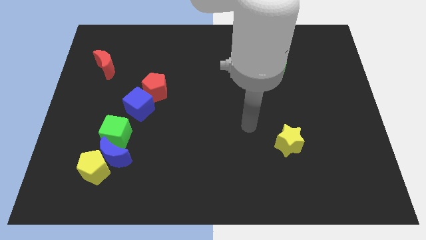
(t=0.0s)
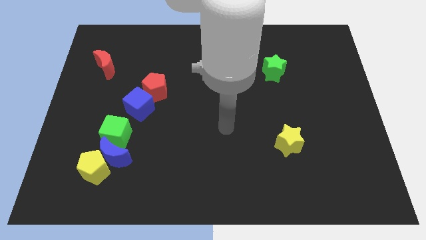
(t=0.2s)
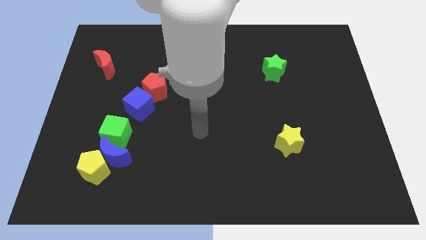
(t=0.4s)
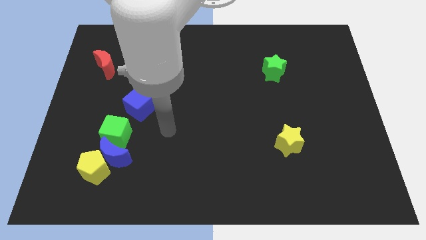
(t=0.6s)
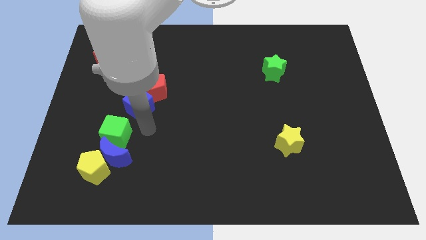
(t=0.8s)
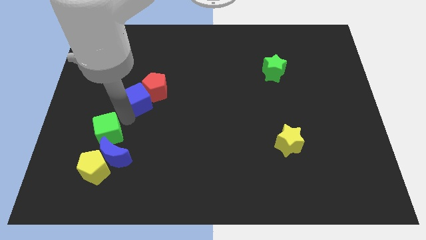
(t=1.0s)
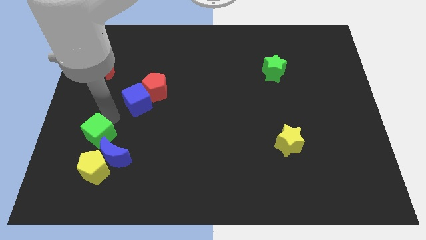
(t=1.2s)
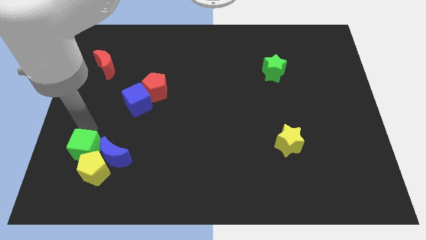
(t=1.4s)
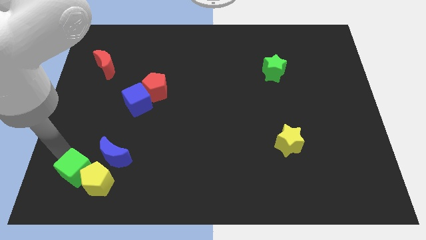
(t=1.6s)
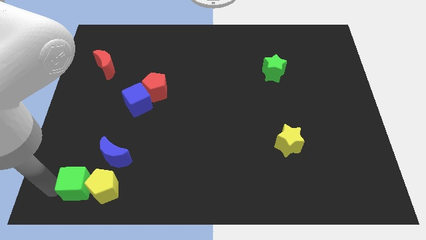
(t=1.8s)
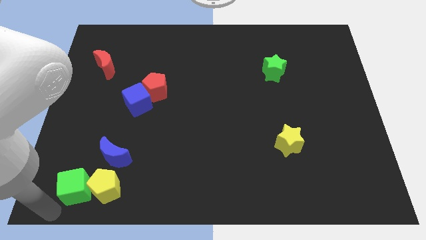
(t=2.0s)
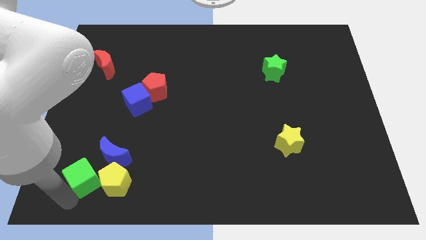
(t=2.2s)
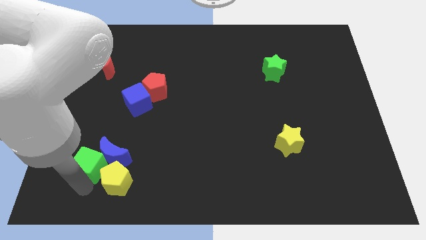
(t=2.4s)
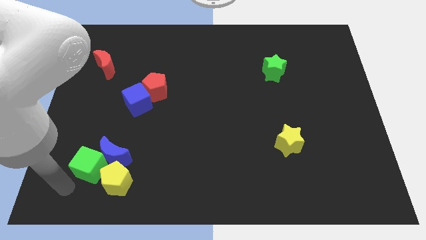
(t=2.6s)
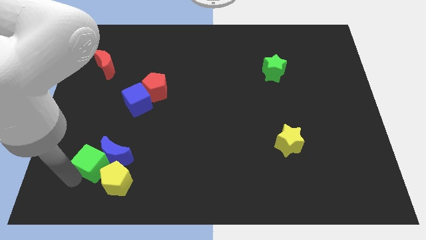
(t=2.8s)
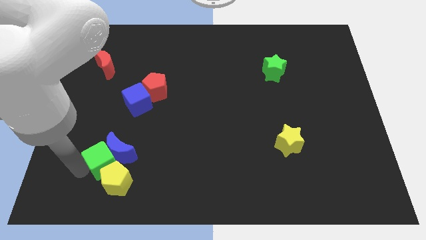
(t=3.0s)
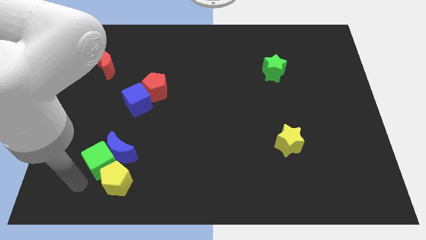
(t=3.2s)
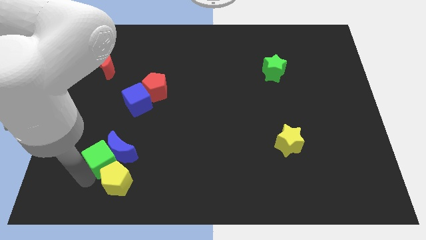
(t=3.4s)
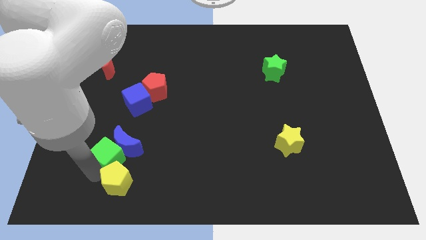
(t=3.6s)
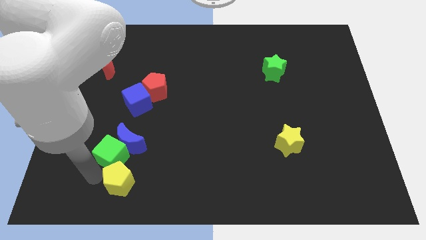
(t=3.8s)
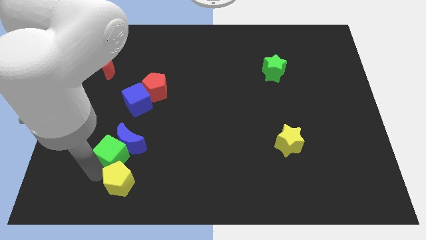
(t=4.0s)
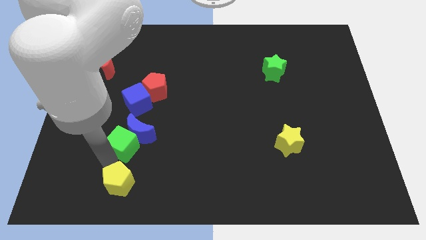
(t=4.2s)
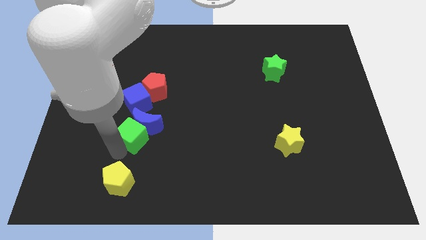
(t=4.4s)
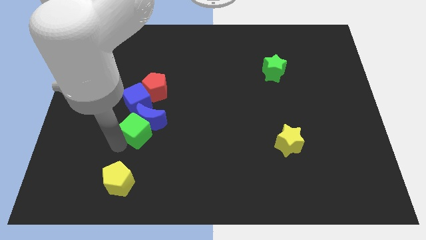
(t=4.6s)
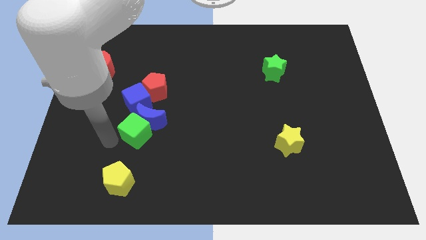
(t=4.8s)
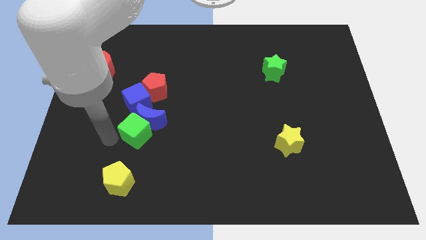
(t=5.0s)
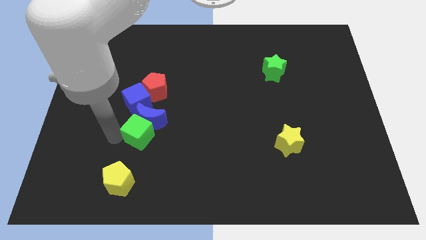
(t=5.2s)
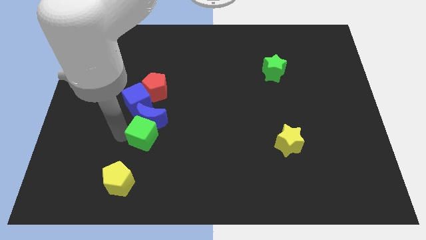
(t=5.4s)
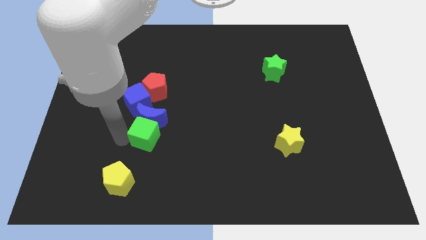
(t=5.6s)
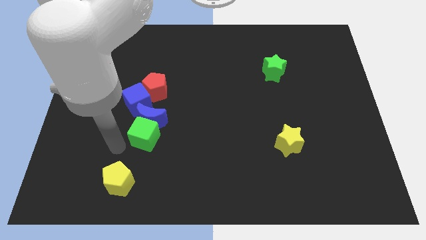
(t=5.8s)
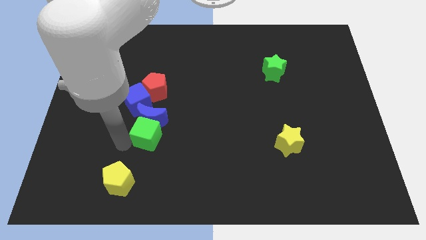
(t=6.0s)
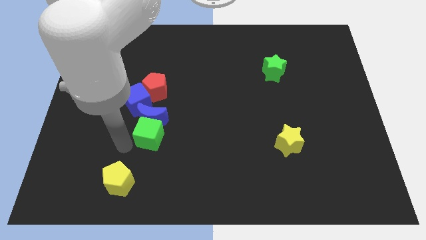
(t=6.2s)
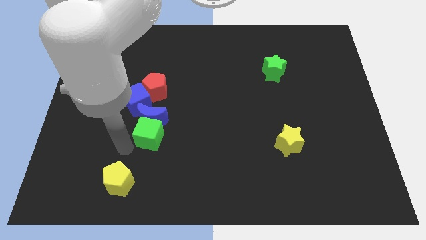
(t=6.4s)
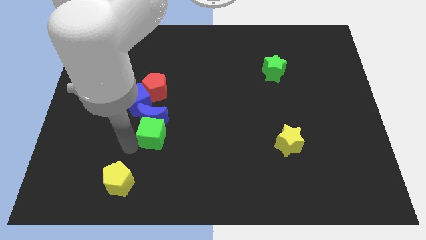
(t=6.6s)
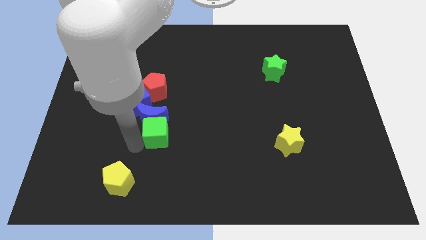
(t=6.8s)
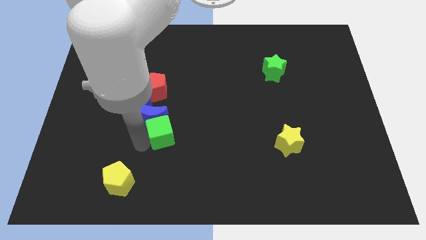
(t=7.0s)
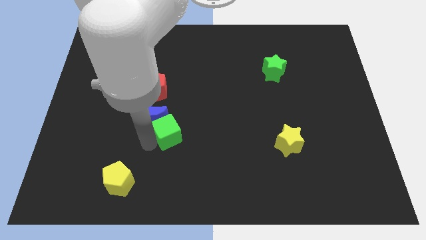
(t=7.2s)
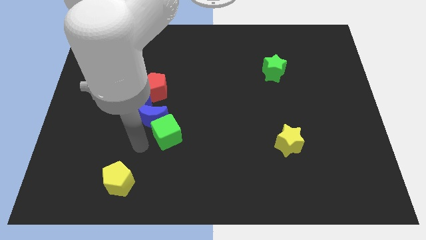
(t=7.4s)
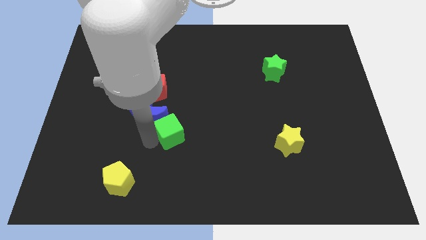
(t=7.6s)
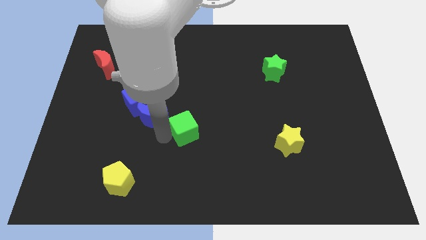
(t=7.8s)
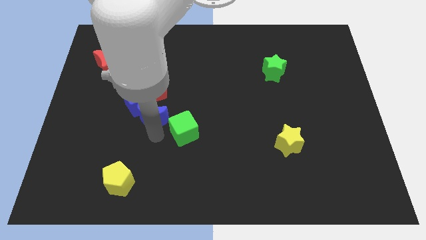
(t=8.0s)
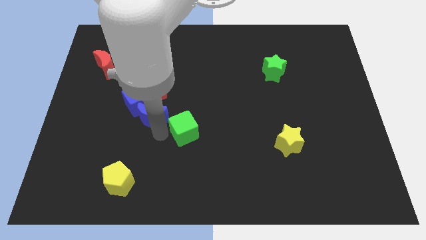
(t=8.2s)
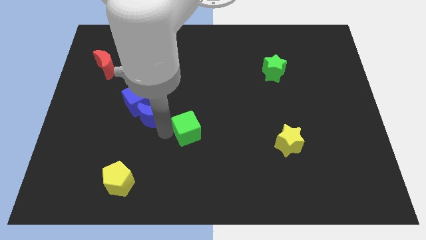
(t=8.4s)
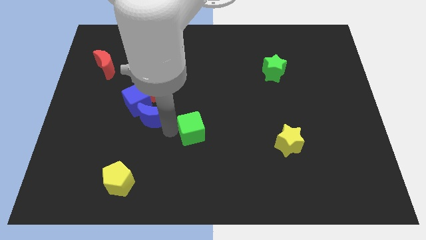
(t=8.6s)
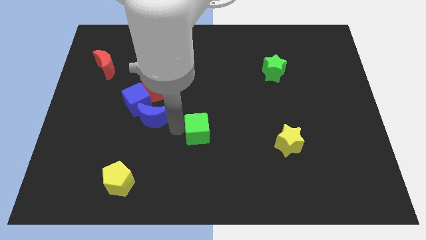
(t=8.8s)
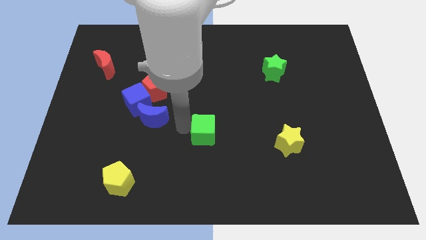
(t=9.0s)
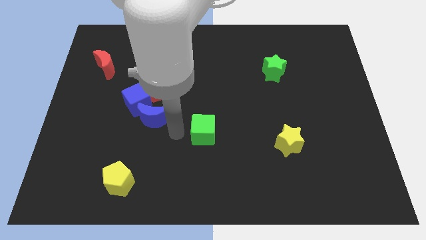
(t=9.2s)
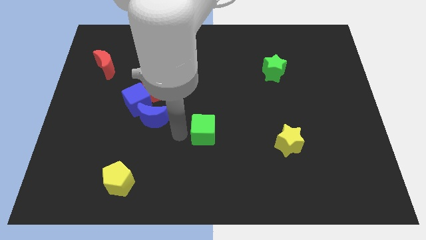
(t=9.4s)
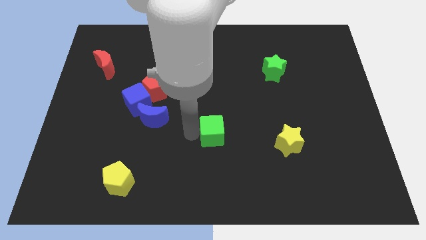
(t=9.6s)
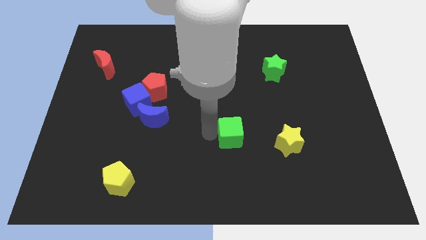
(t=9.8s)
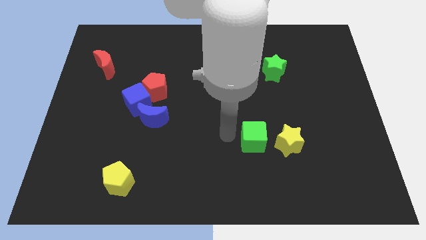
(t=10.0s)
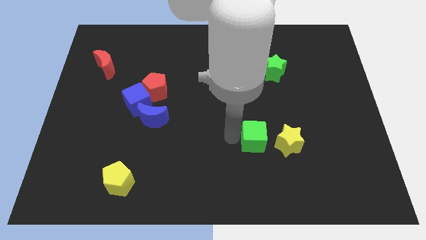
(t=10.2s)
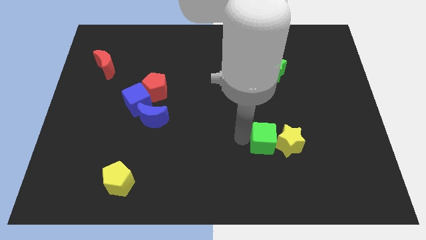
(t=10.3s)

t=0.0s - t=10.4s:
push the green cube close to the yellow star

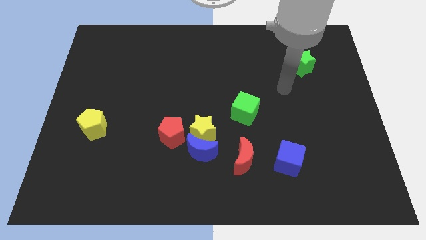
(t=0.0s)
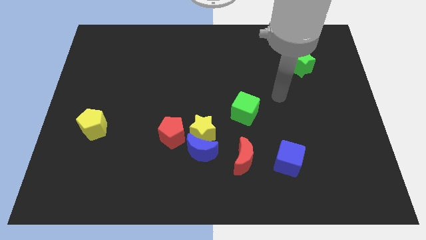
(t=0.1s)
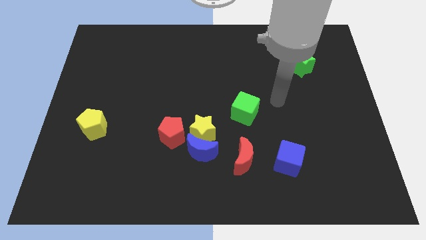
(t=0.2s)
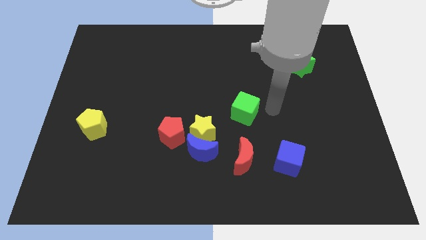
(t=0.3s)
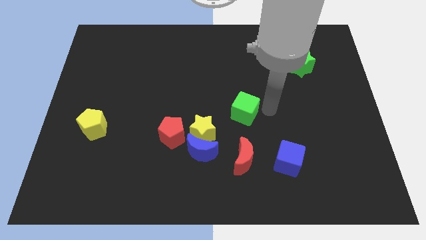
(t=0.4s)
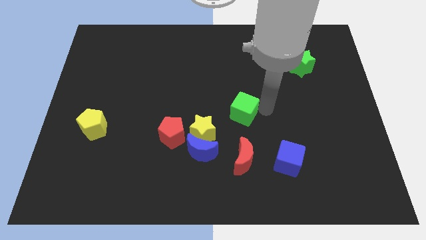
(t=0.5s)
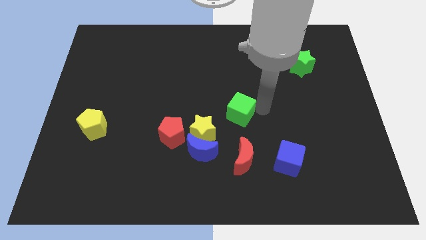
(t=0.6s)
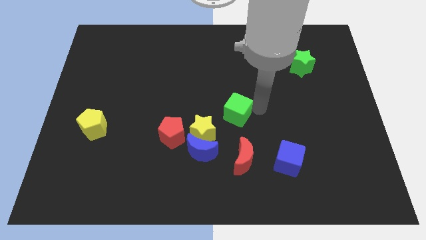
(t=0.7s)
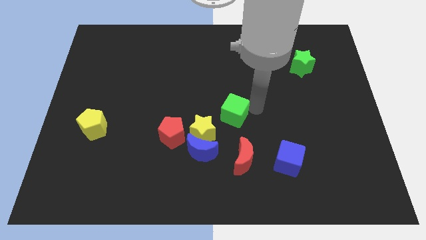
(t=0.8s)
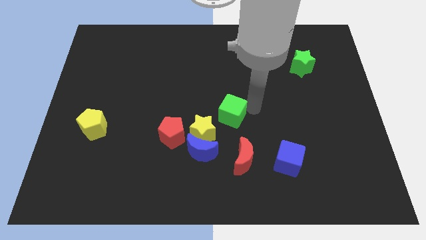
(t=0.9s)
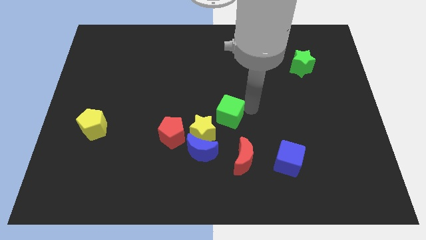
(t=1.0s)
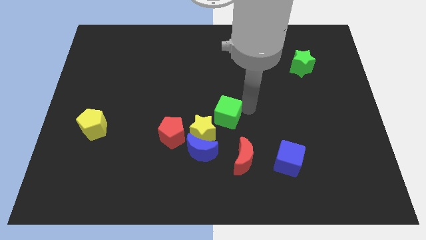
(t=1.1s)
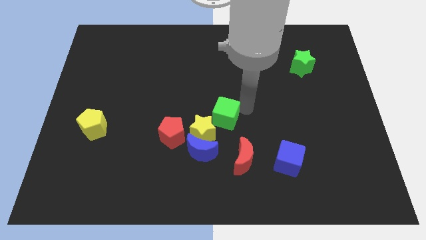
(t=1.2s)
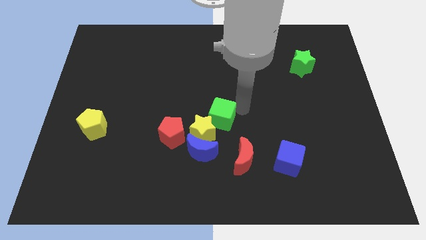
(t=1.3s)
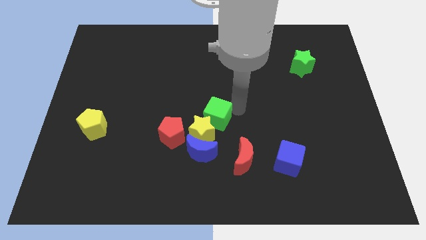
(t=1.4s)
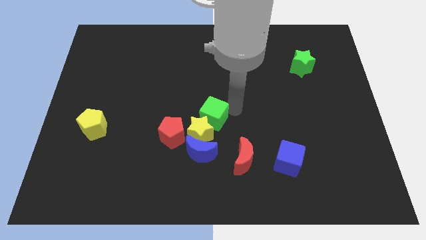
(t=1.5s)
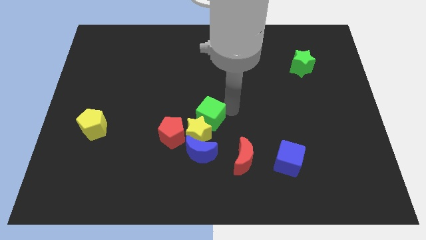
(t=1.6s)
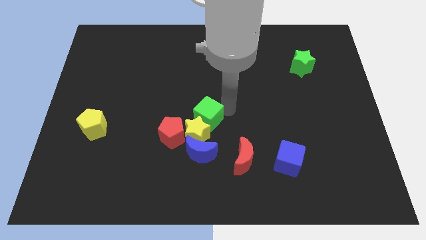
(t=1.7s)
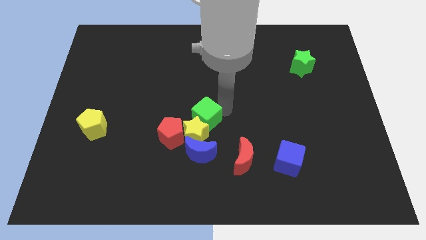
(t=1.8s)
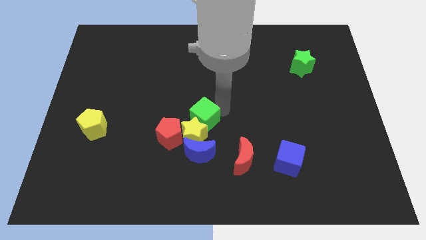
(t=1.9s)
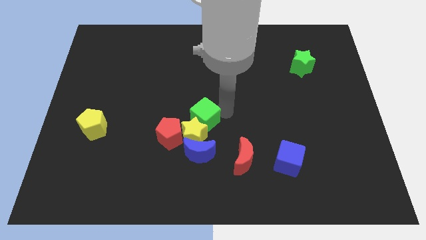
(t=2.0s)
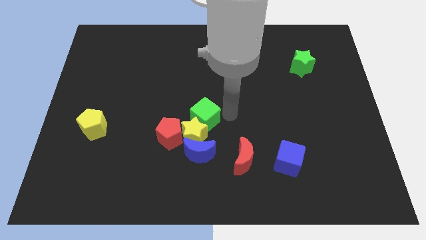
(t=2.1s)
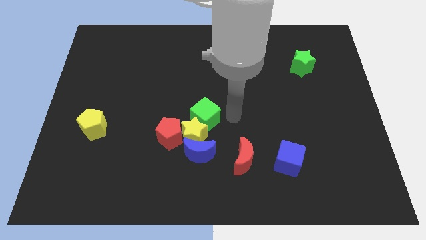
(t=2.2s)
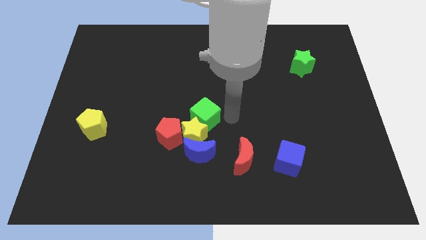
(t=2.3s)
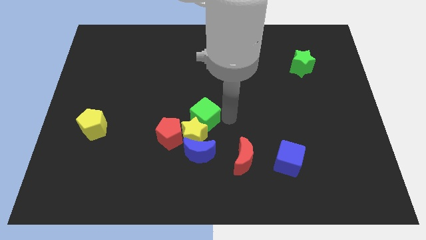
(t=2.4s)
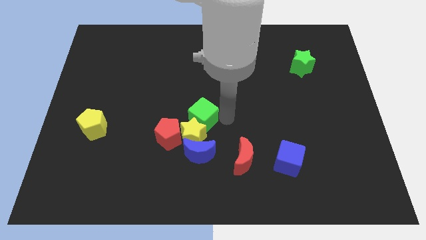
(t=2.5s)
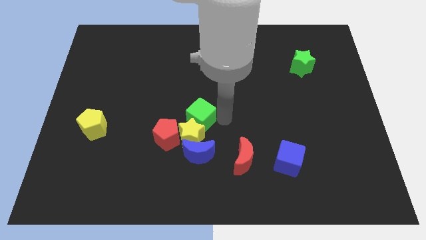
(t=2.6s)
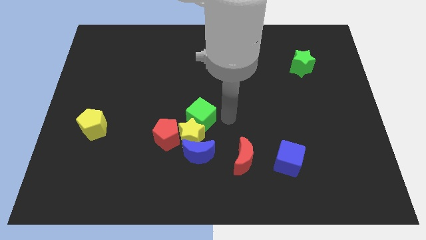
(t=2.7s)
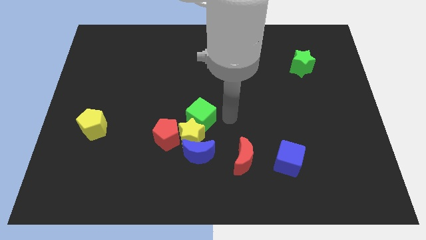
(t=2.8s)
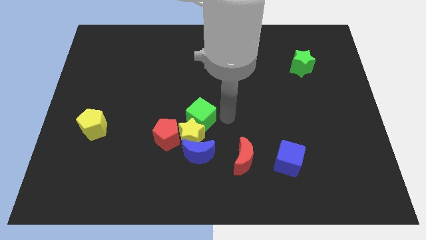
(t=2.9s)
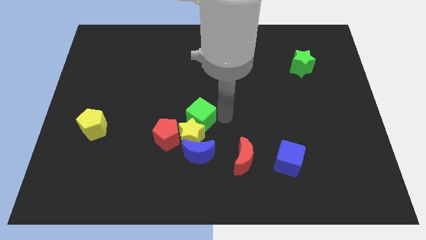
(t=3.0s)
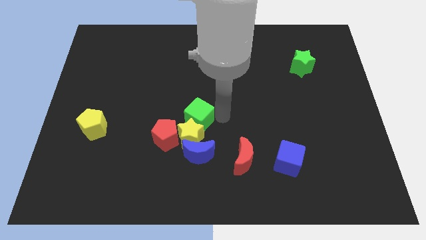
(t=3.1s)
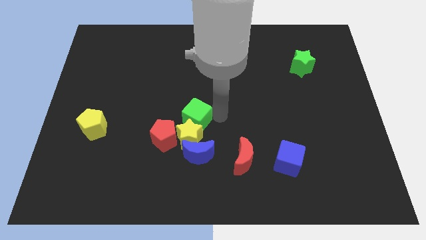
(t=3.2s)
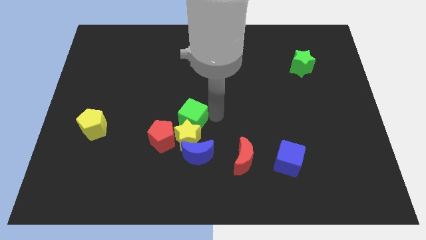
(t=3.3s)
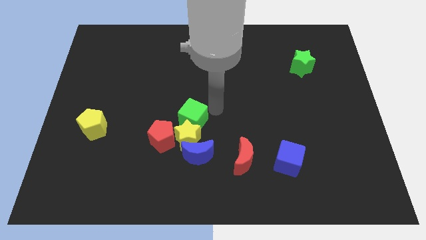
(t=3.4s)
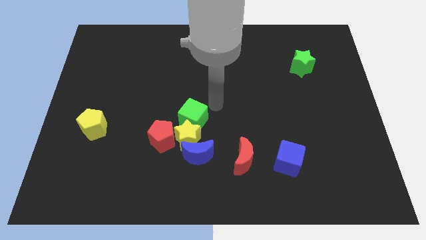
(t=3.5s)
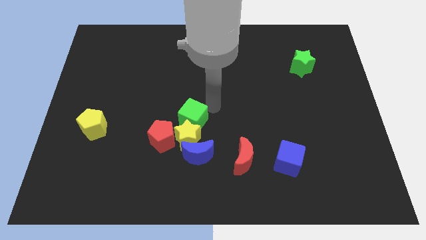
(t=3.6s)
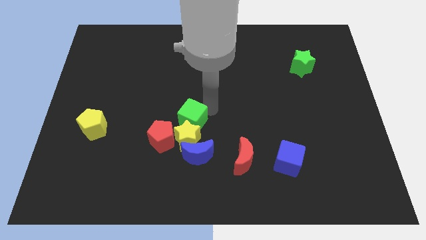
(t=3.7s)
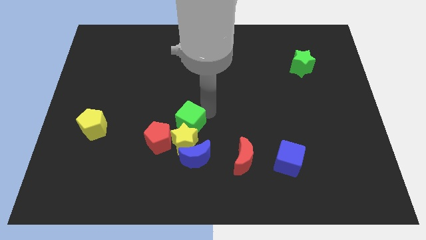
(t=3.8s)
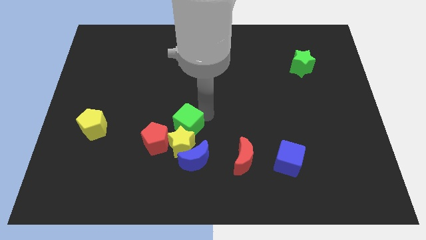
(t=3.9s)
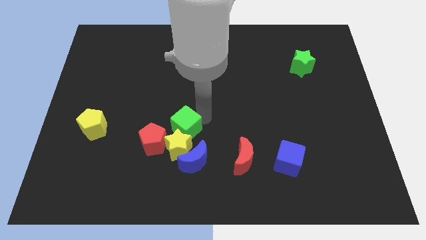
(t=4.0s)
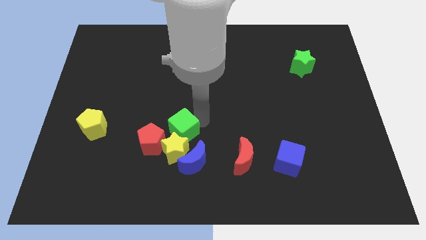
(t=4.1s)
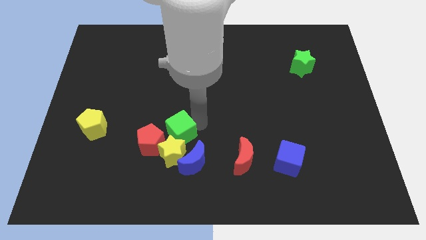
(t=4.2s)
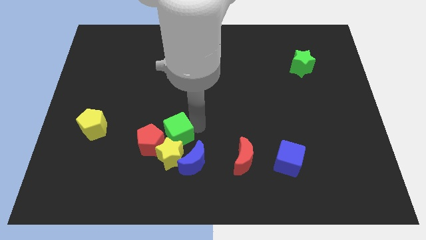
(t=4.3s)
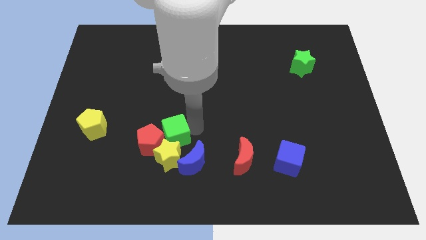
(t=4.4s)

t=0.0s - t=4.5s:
push the green cube next to the red pentagon
